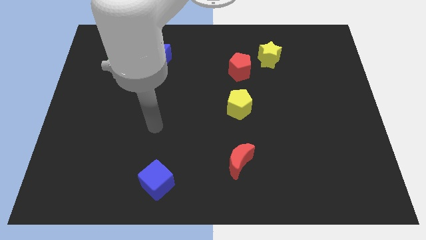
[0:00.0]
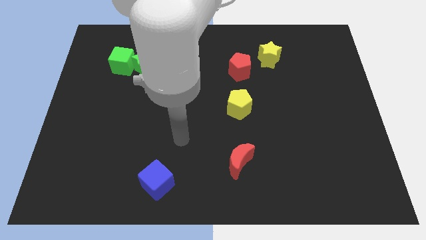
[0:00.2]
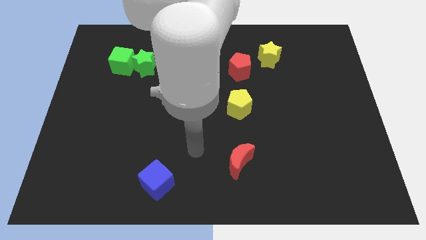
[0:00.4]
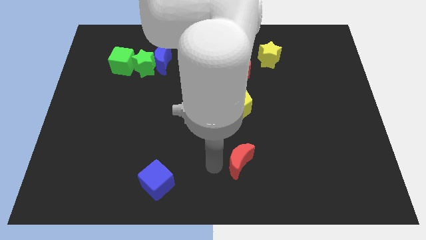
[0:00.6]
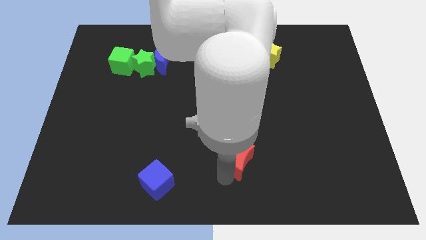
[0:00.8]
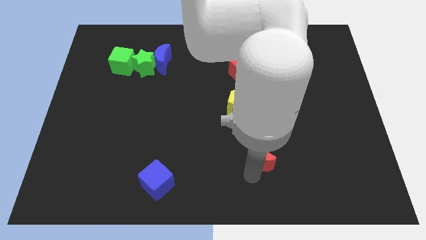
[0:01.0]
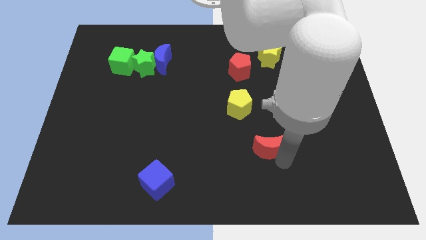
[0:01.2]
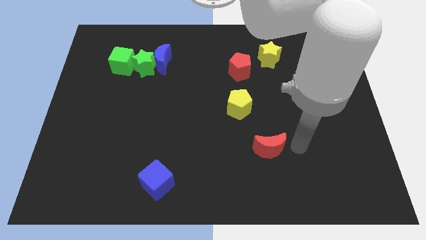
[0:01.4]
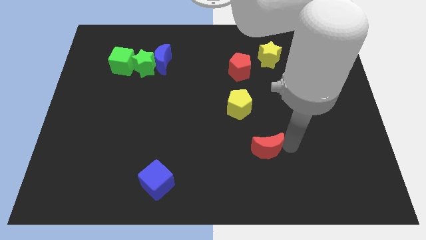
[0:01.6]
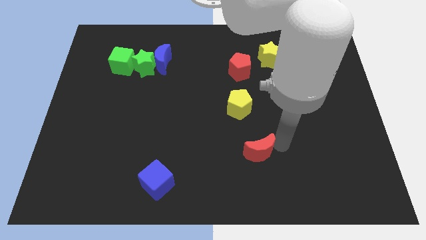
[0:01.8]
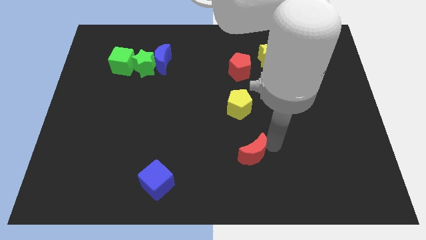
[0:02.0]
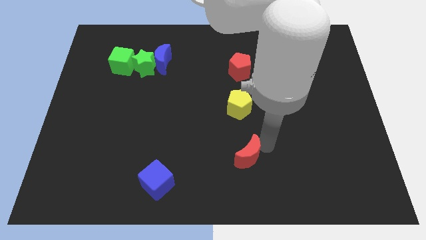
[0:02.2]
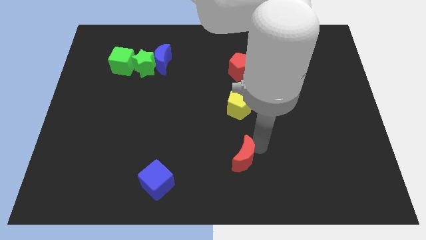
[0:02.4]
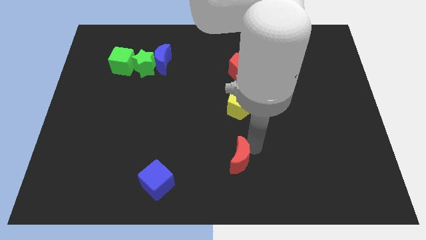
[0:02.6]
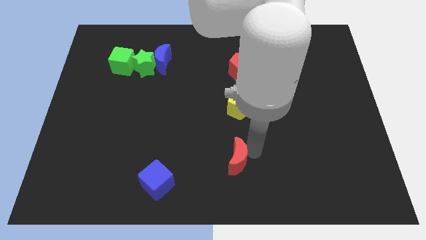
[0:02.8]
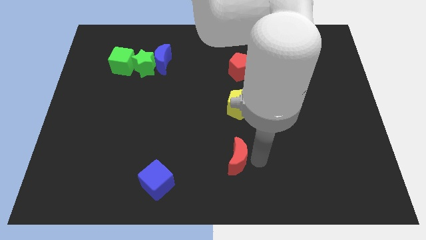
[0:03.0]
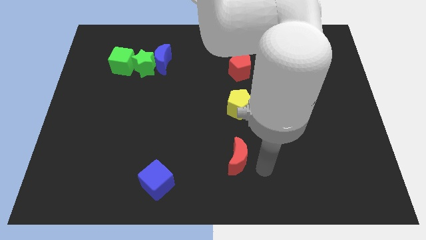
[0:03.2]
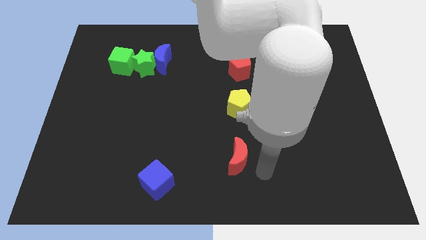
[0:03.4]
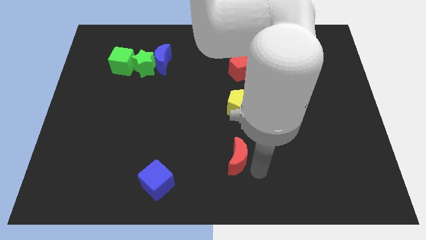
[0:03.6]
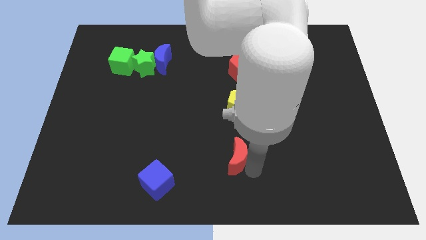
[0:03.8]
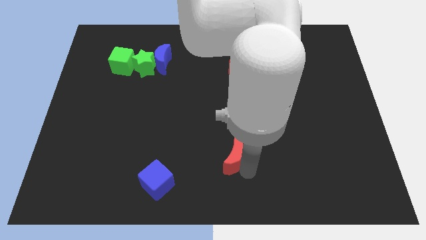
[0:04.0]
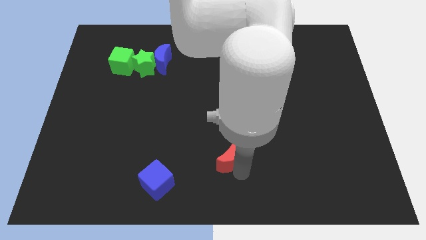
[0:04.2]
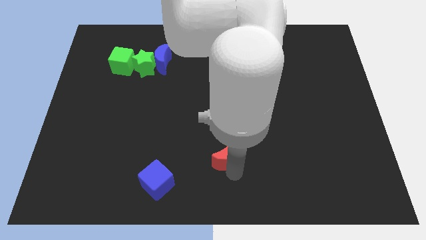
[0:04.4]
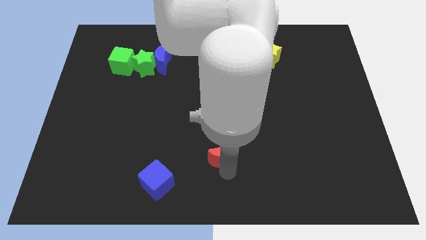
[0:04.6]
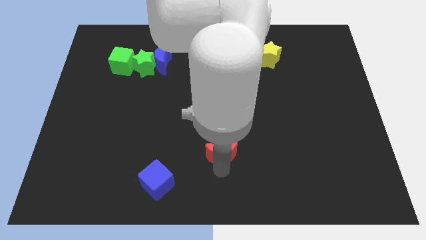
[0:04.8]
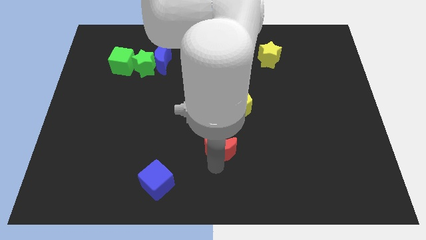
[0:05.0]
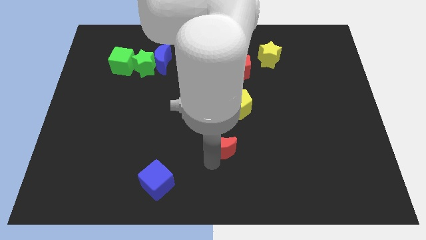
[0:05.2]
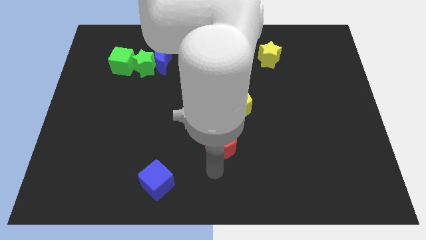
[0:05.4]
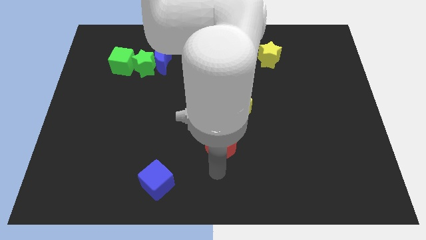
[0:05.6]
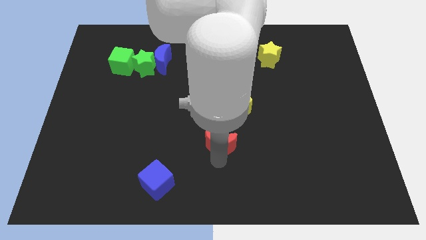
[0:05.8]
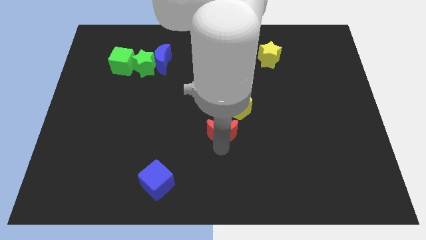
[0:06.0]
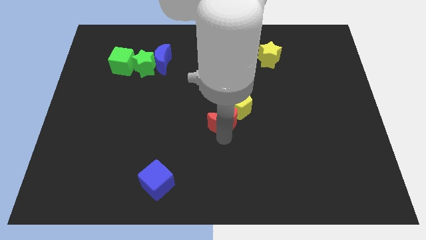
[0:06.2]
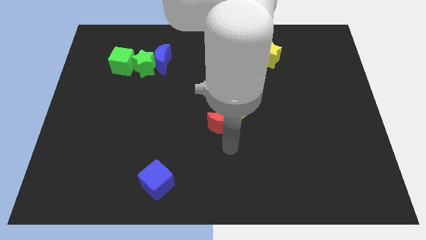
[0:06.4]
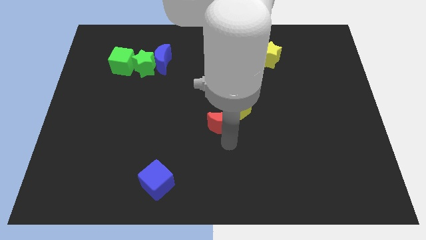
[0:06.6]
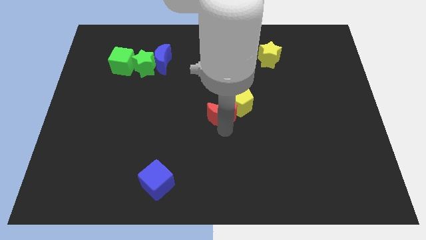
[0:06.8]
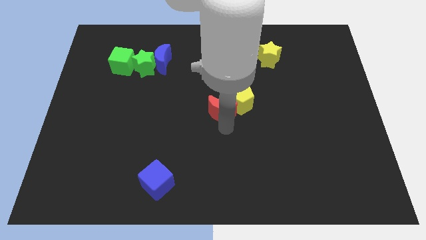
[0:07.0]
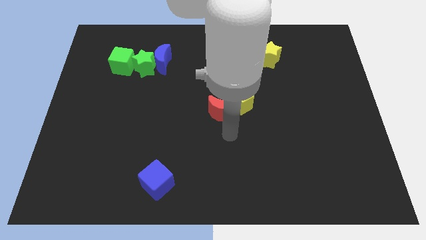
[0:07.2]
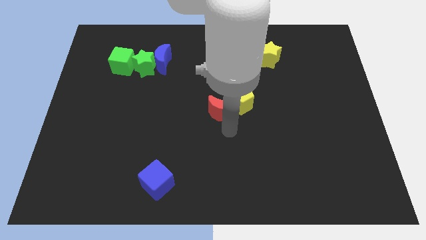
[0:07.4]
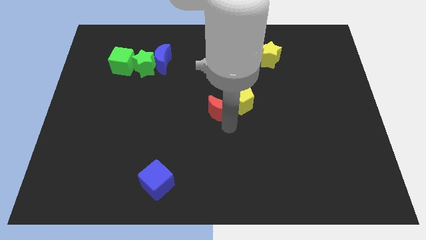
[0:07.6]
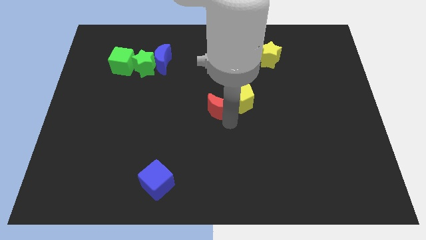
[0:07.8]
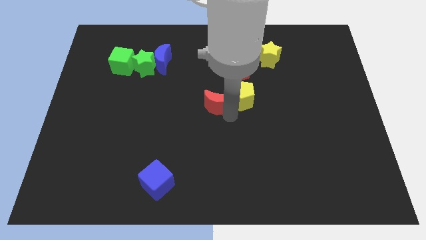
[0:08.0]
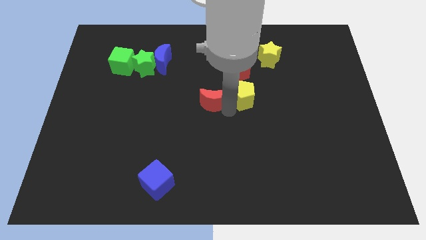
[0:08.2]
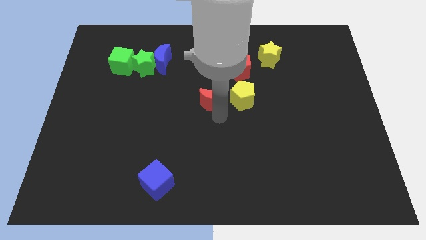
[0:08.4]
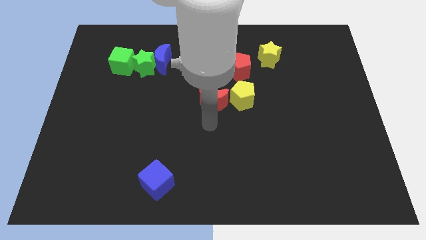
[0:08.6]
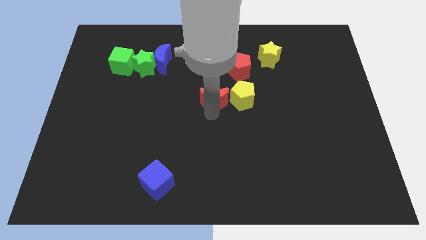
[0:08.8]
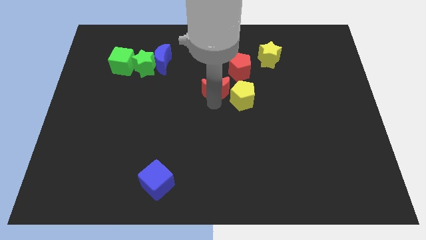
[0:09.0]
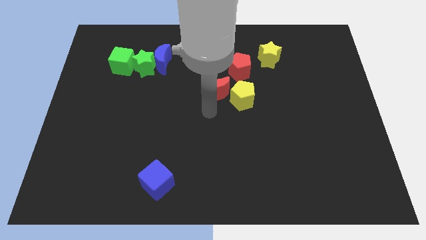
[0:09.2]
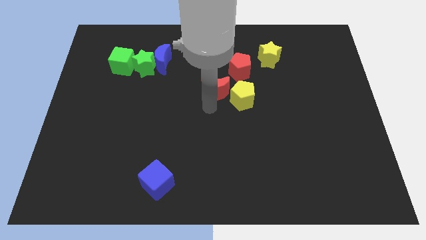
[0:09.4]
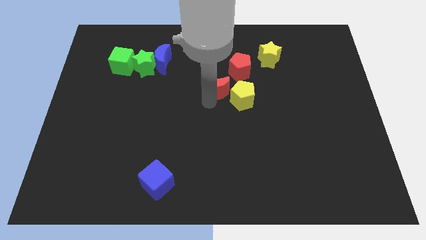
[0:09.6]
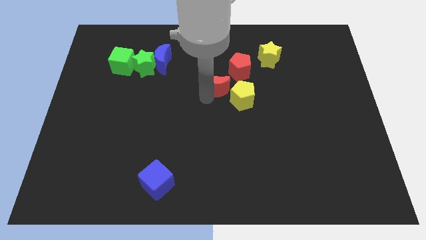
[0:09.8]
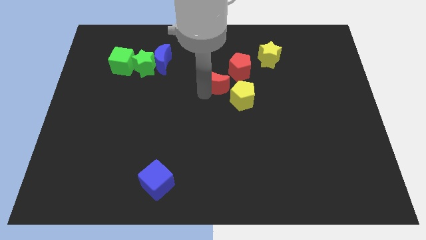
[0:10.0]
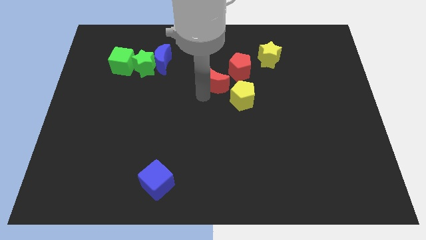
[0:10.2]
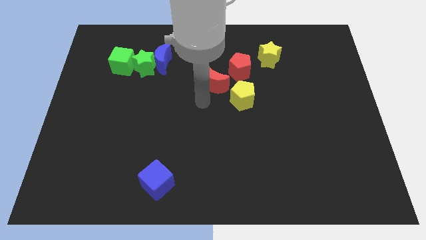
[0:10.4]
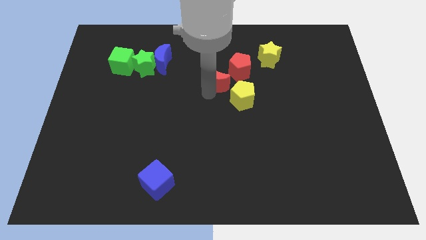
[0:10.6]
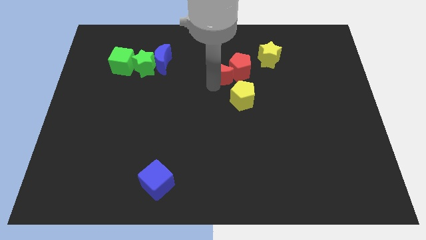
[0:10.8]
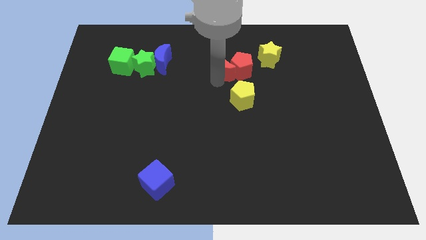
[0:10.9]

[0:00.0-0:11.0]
push the red moon diagonally up and to the left of the red pentagon

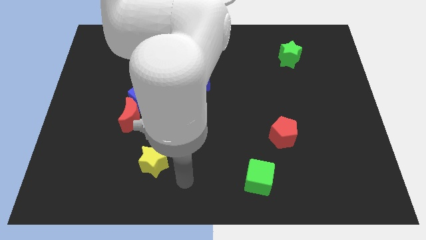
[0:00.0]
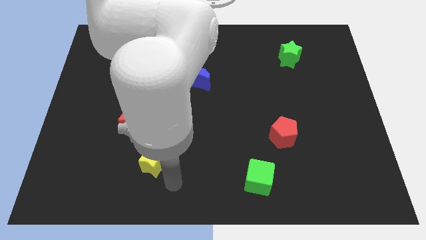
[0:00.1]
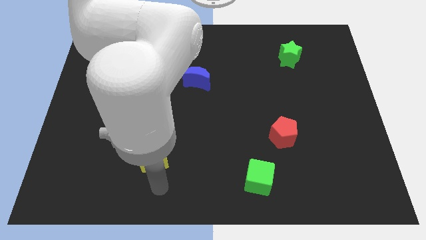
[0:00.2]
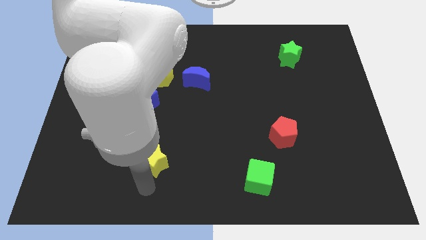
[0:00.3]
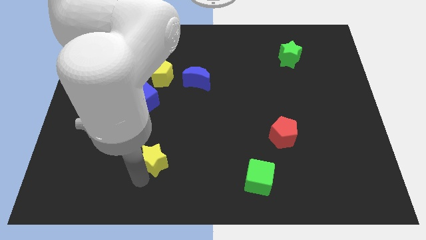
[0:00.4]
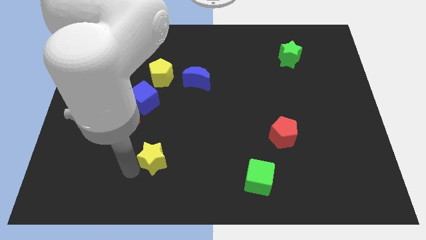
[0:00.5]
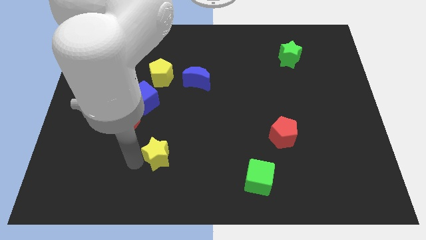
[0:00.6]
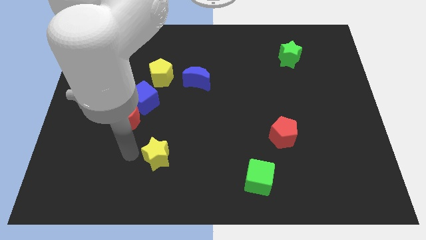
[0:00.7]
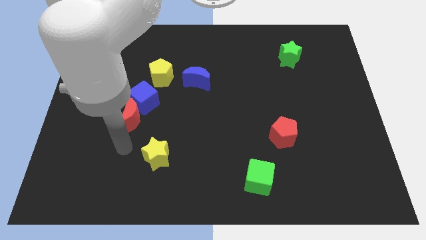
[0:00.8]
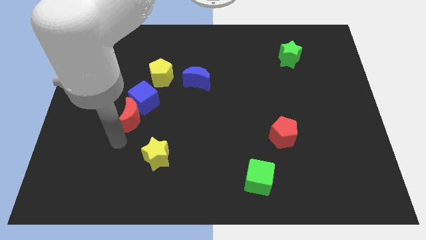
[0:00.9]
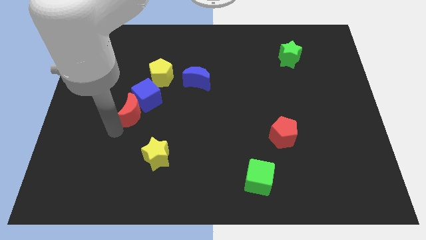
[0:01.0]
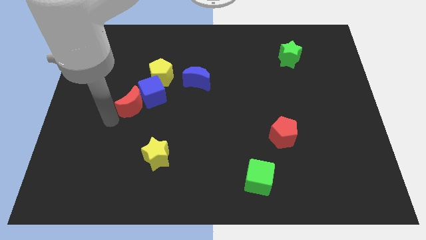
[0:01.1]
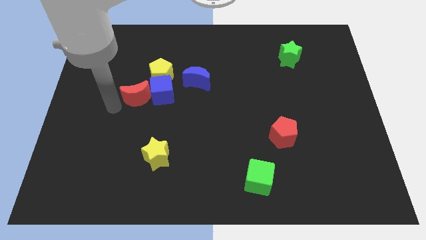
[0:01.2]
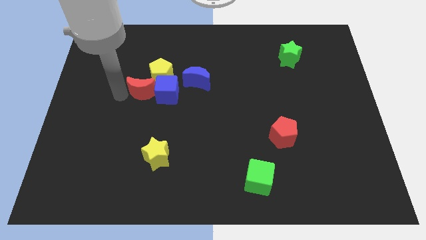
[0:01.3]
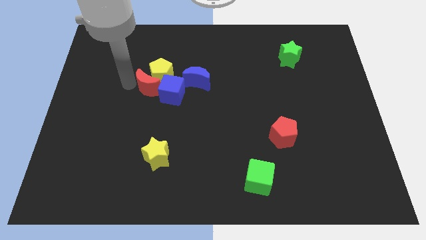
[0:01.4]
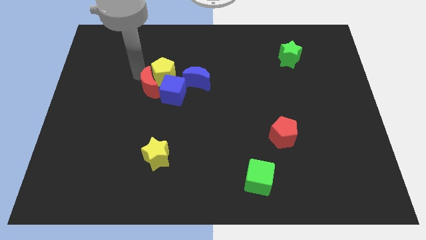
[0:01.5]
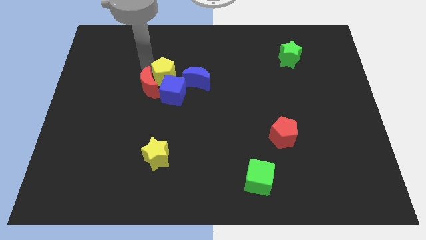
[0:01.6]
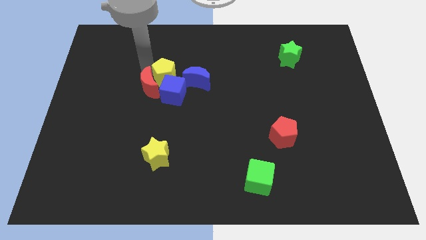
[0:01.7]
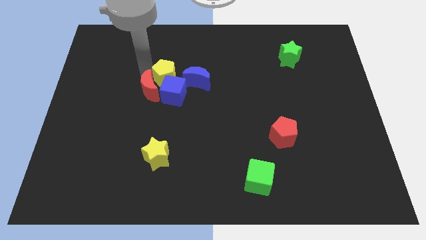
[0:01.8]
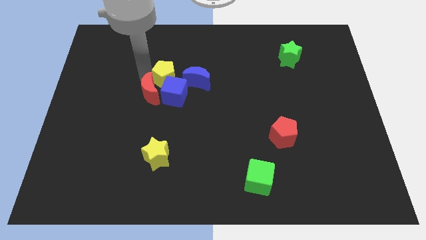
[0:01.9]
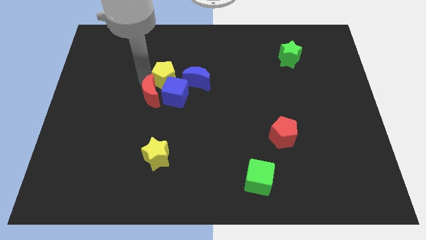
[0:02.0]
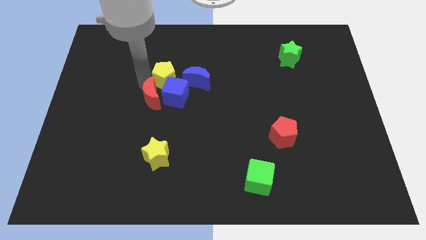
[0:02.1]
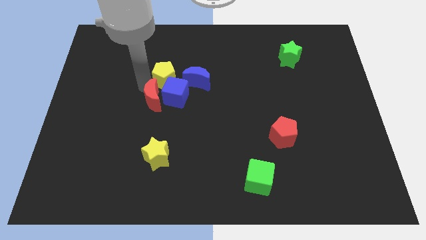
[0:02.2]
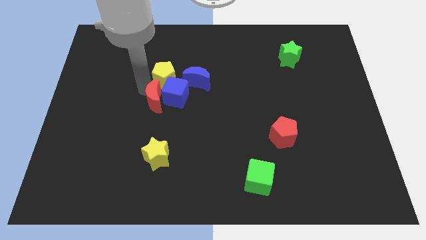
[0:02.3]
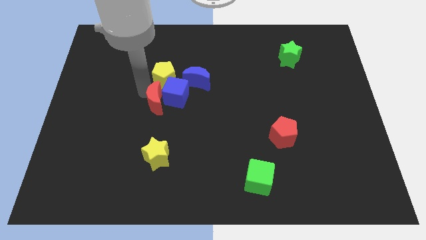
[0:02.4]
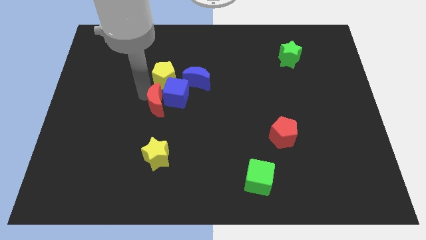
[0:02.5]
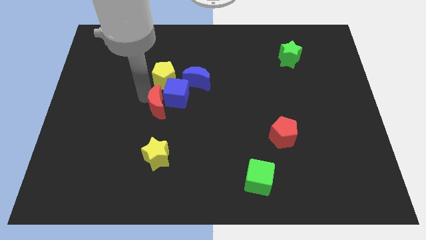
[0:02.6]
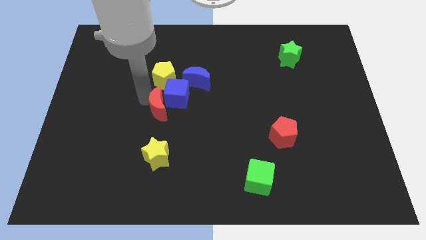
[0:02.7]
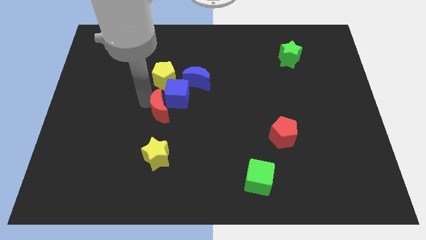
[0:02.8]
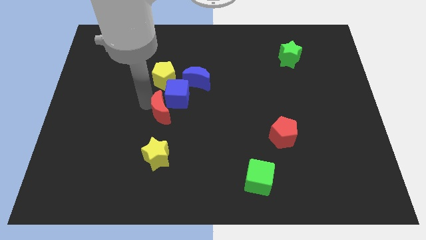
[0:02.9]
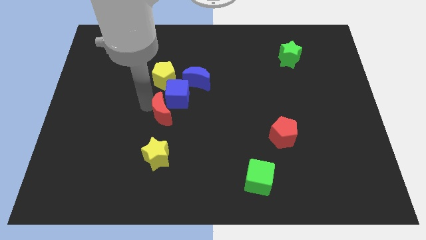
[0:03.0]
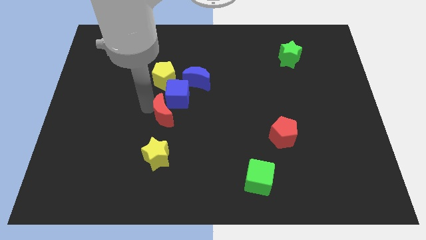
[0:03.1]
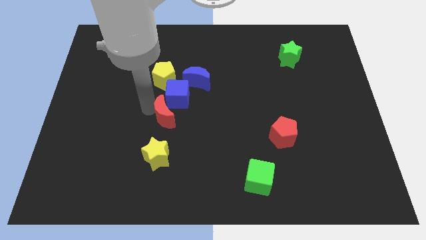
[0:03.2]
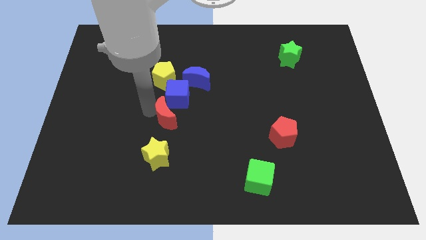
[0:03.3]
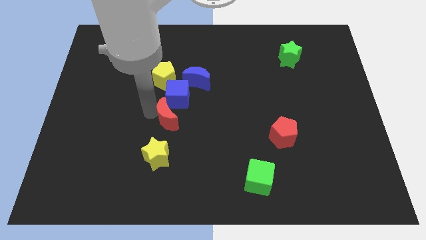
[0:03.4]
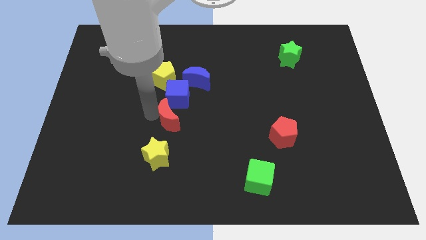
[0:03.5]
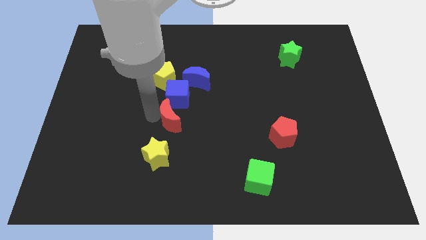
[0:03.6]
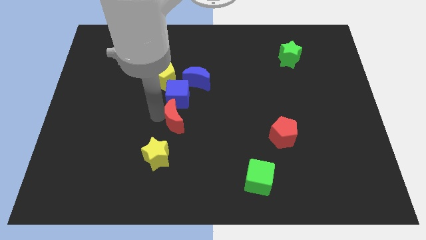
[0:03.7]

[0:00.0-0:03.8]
move the red moon diagonally up and to the right of the yellow star
